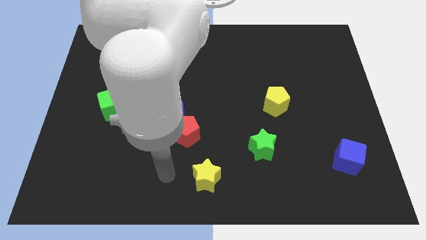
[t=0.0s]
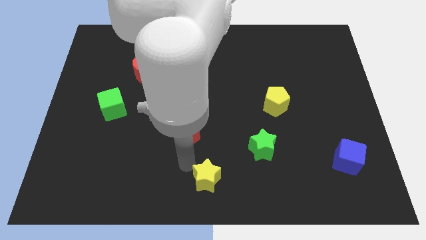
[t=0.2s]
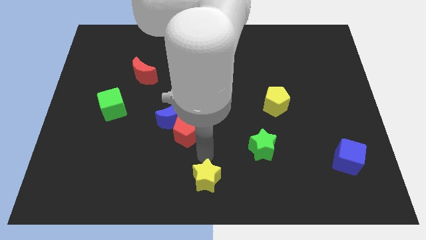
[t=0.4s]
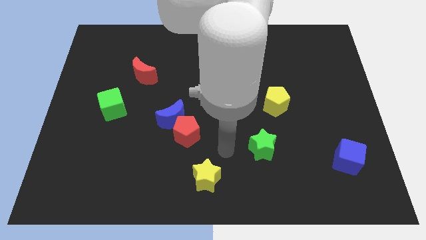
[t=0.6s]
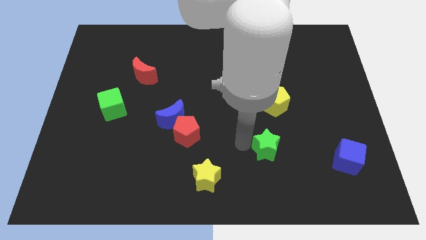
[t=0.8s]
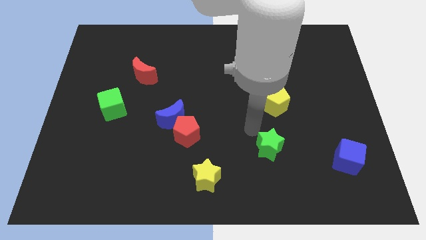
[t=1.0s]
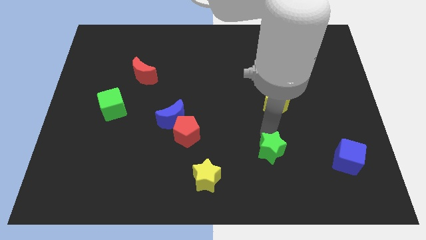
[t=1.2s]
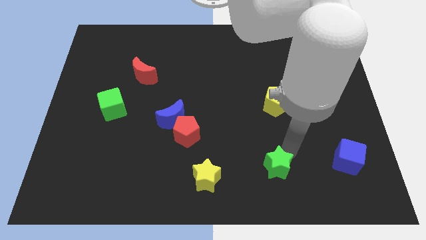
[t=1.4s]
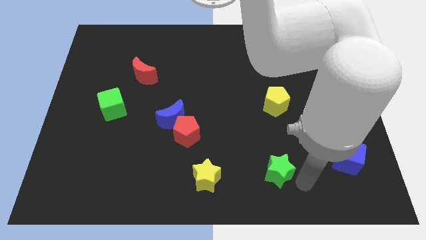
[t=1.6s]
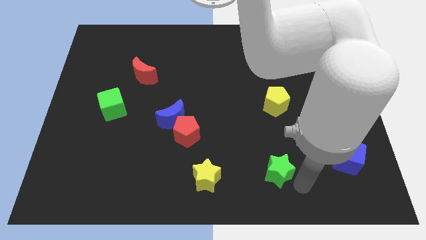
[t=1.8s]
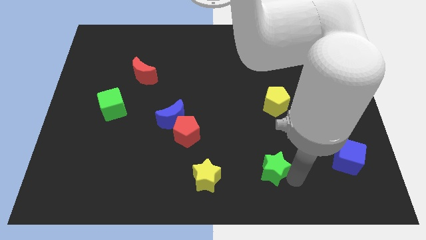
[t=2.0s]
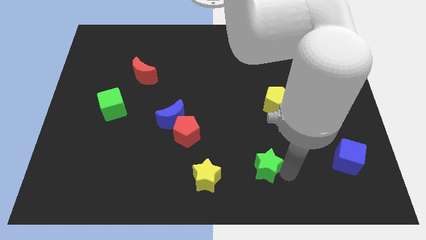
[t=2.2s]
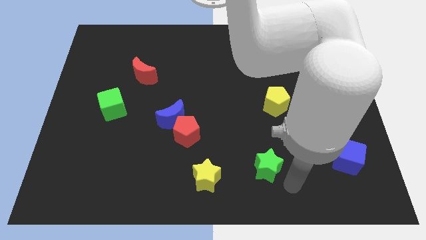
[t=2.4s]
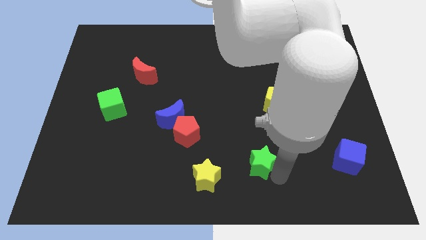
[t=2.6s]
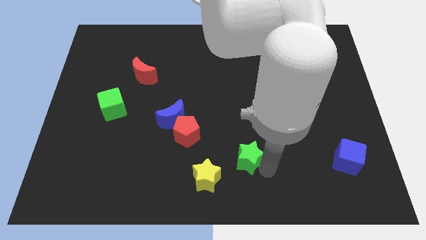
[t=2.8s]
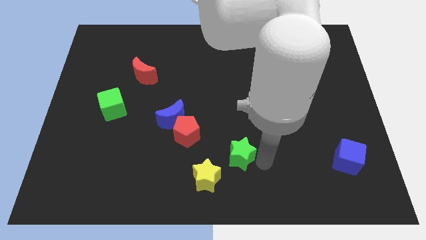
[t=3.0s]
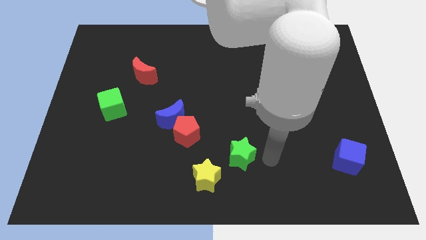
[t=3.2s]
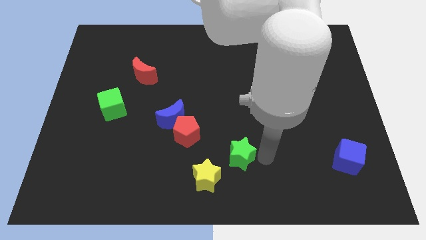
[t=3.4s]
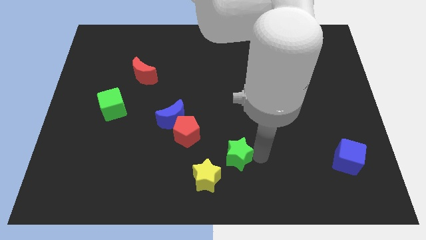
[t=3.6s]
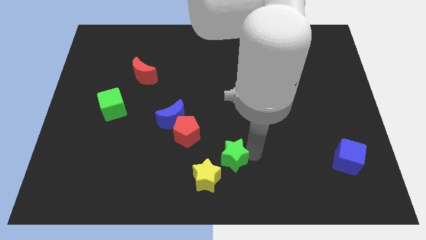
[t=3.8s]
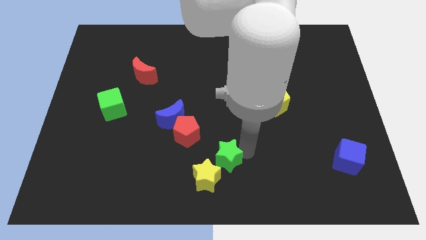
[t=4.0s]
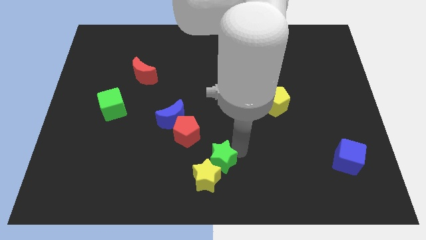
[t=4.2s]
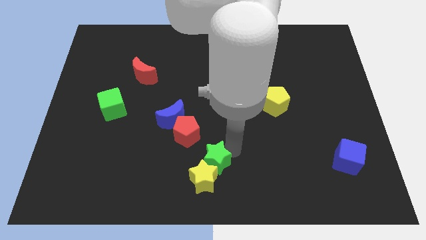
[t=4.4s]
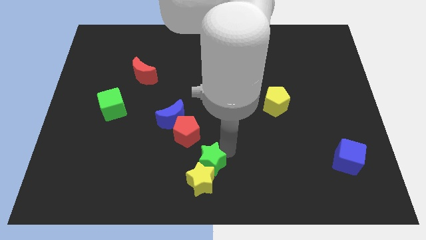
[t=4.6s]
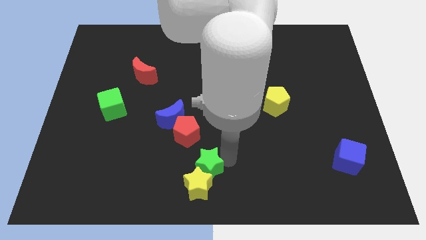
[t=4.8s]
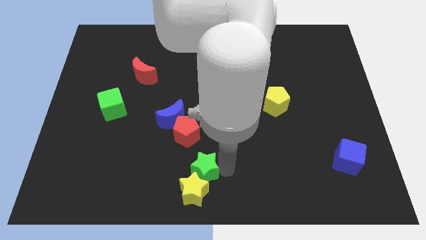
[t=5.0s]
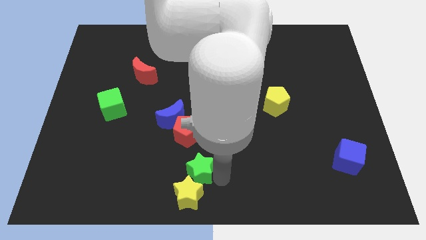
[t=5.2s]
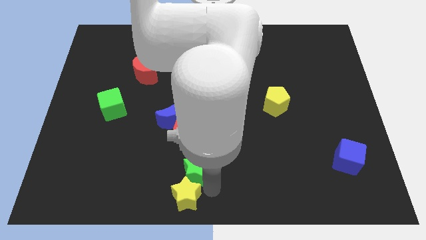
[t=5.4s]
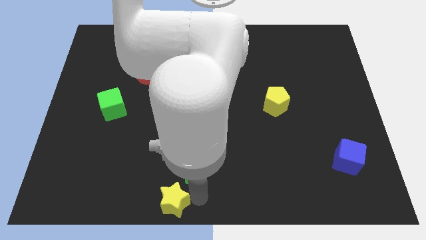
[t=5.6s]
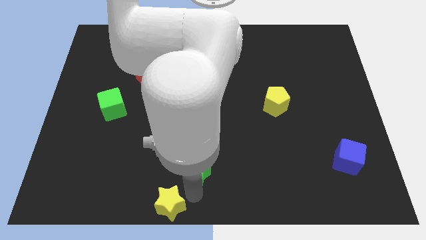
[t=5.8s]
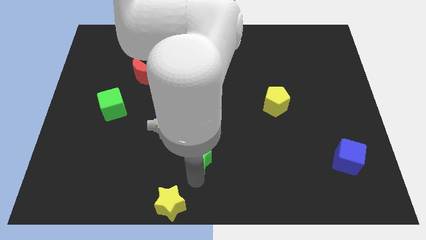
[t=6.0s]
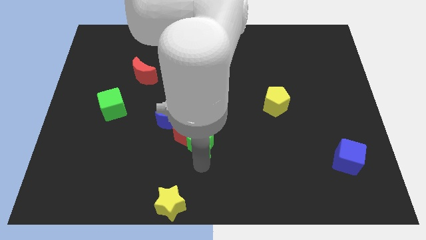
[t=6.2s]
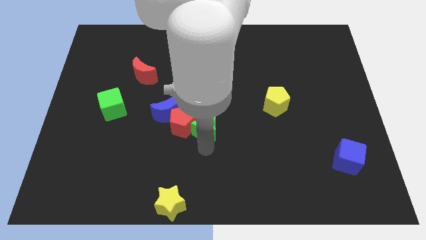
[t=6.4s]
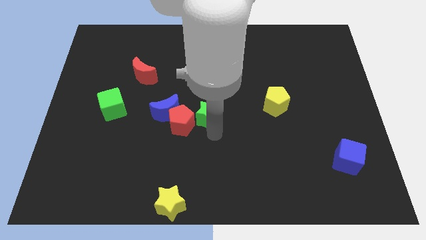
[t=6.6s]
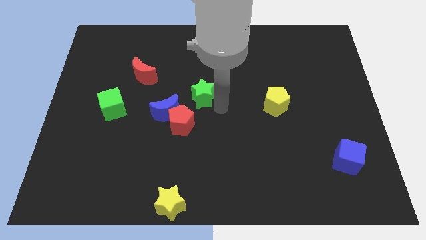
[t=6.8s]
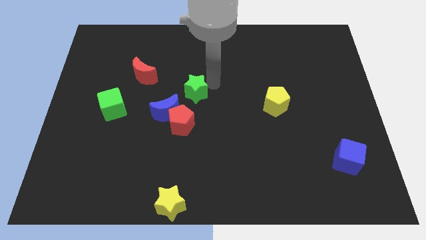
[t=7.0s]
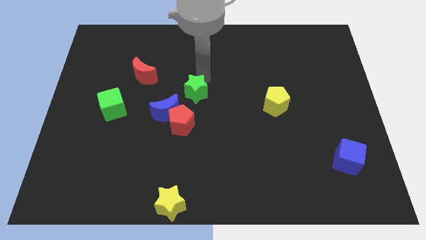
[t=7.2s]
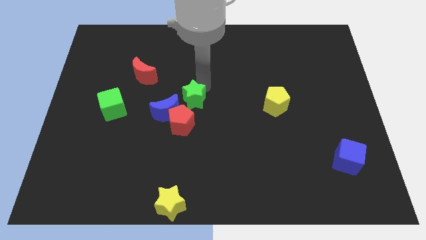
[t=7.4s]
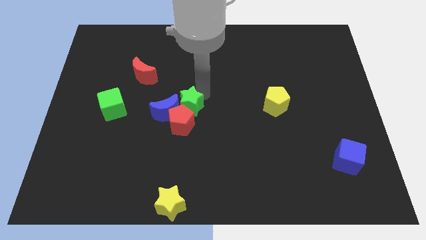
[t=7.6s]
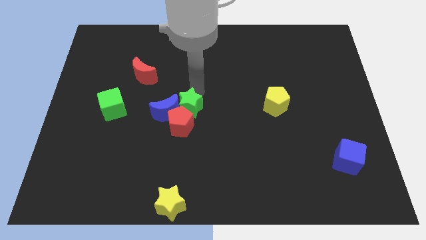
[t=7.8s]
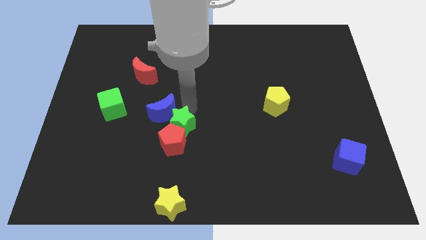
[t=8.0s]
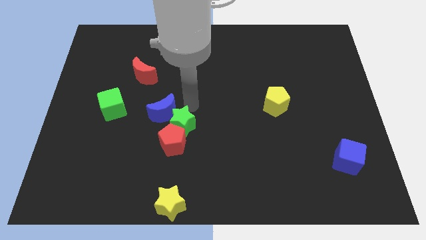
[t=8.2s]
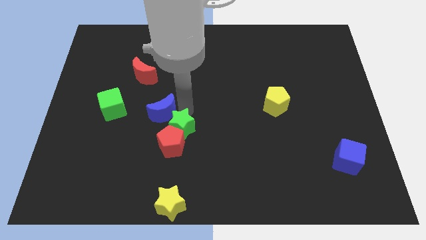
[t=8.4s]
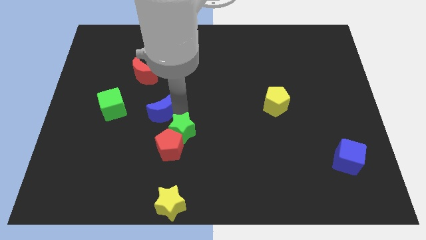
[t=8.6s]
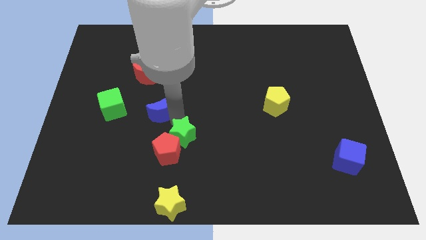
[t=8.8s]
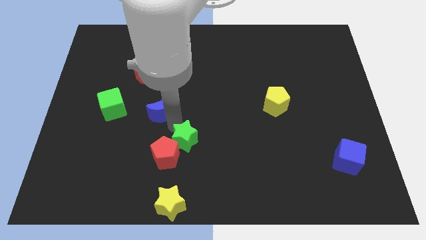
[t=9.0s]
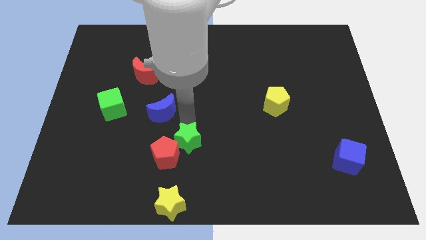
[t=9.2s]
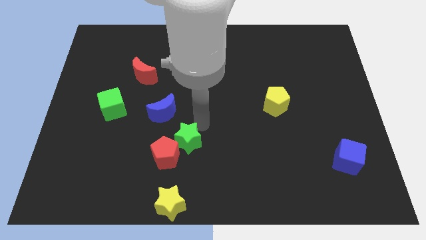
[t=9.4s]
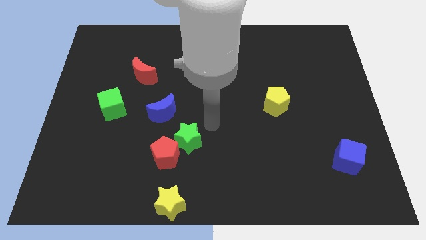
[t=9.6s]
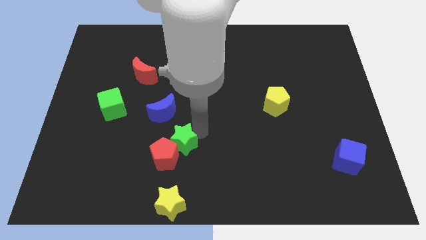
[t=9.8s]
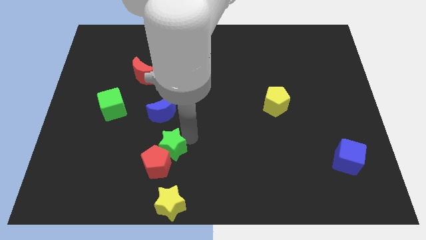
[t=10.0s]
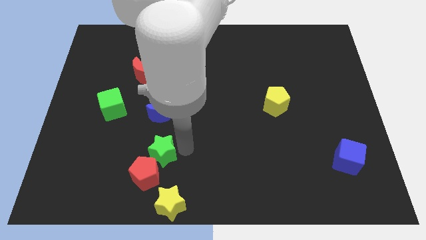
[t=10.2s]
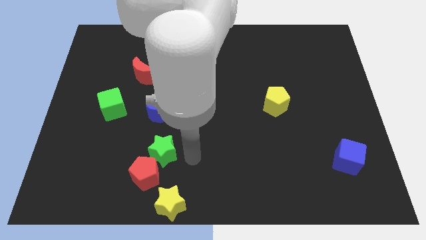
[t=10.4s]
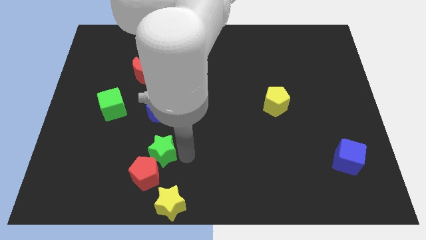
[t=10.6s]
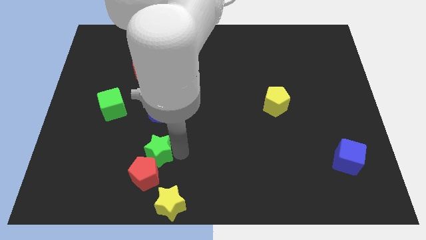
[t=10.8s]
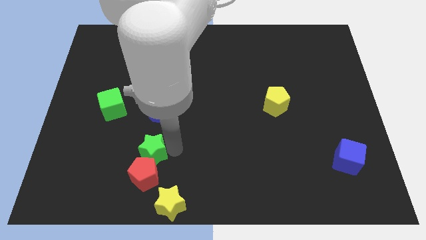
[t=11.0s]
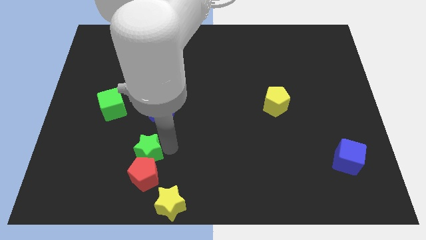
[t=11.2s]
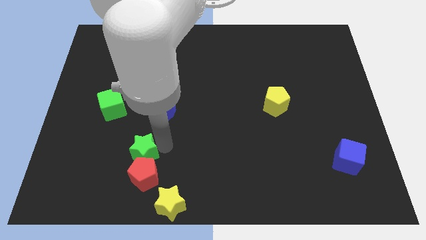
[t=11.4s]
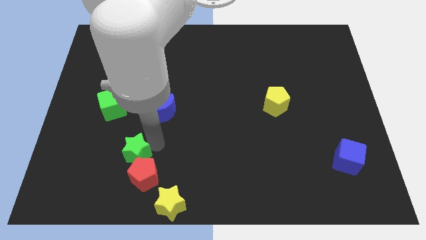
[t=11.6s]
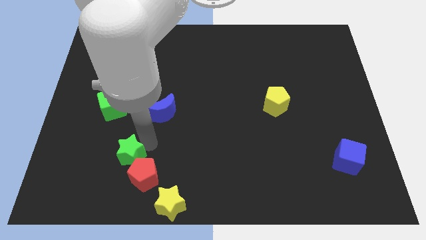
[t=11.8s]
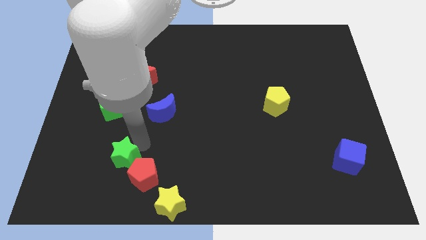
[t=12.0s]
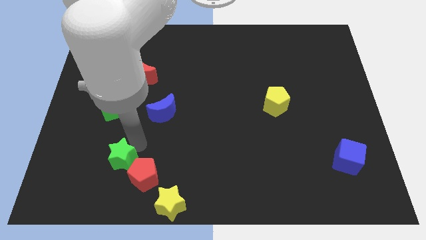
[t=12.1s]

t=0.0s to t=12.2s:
push the green star to the bottom of the green cube

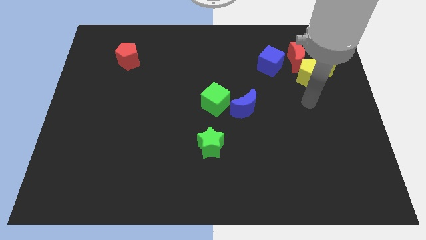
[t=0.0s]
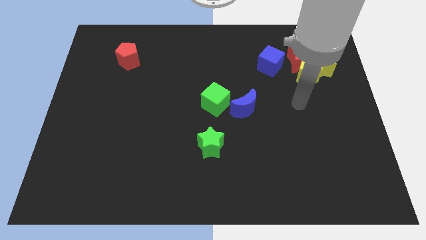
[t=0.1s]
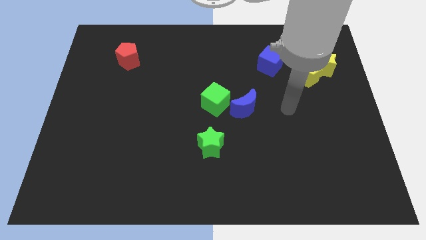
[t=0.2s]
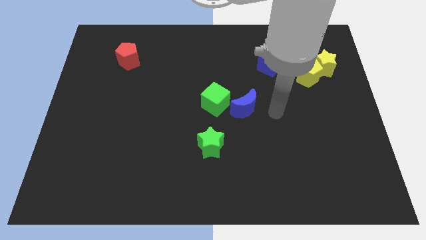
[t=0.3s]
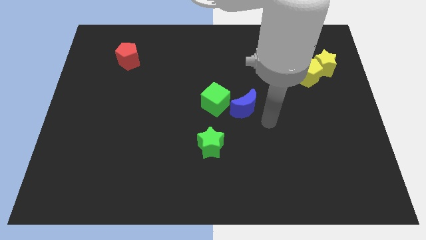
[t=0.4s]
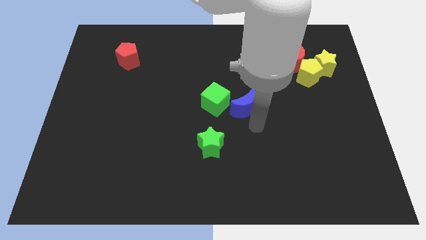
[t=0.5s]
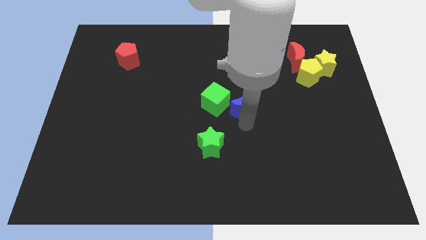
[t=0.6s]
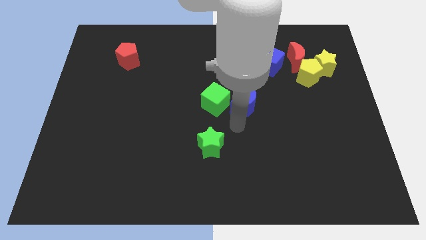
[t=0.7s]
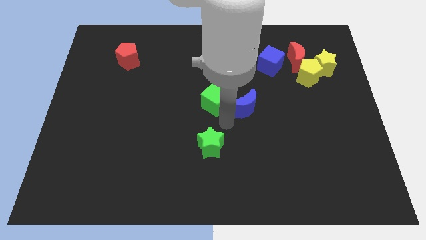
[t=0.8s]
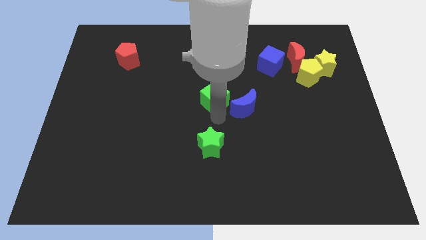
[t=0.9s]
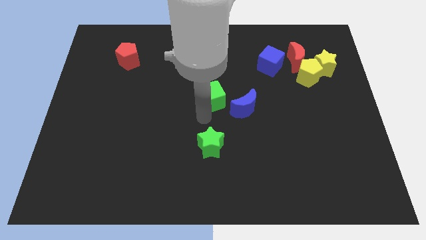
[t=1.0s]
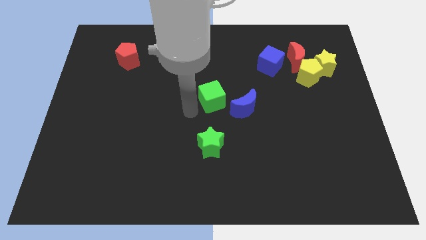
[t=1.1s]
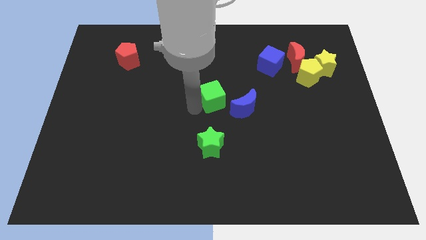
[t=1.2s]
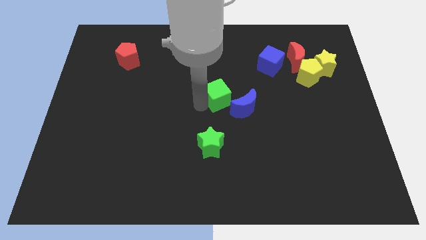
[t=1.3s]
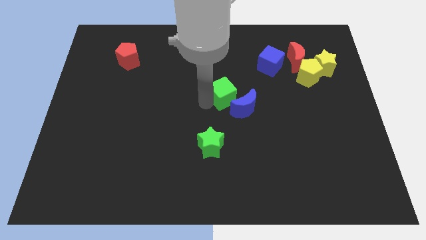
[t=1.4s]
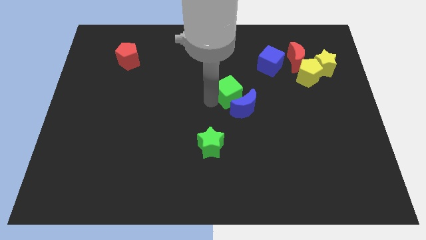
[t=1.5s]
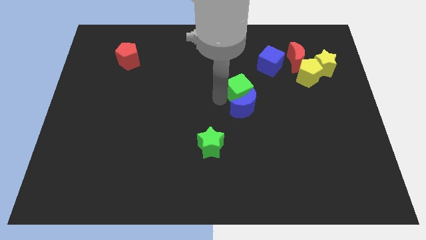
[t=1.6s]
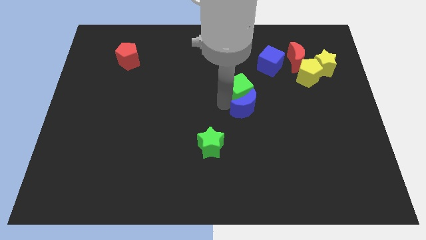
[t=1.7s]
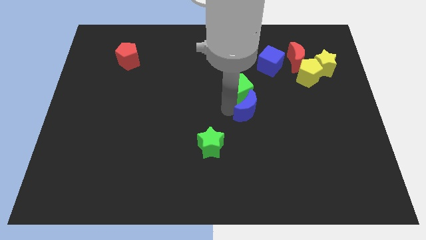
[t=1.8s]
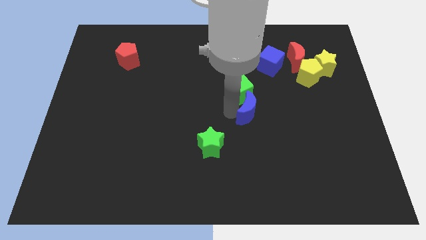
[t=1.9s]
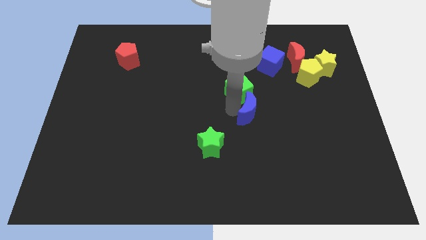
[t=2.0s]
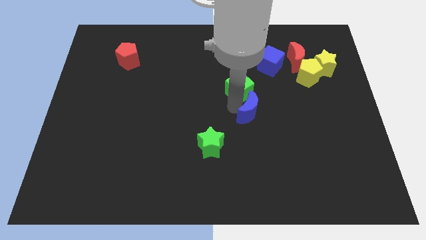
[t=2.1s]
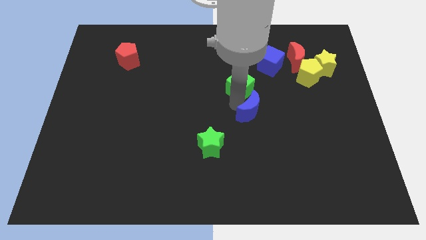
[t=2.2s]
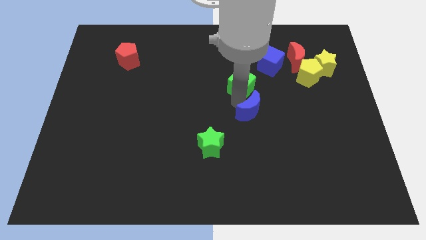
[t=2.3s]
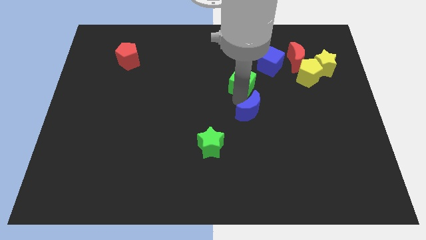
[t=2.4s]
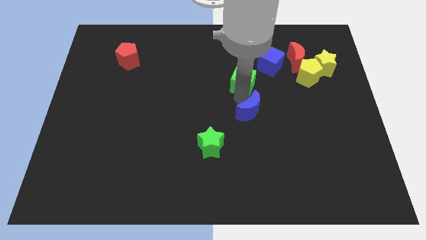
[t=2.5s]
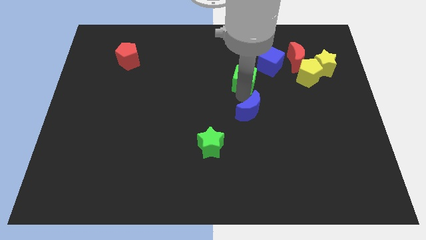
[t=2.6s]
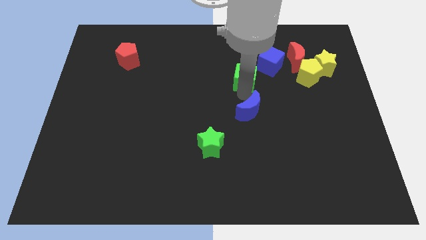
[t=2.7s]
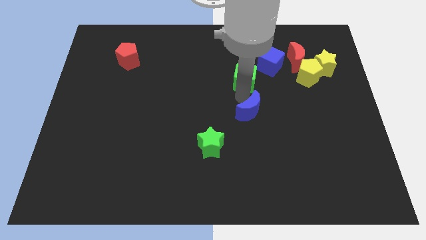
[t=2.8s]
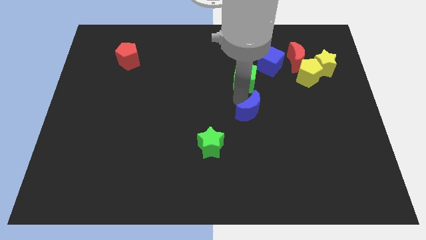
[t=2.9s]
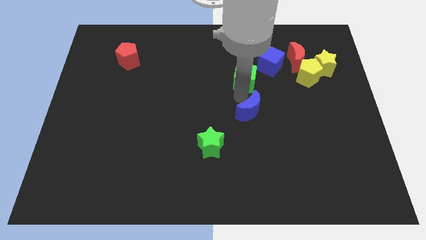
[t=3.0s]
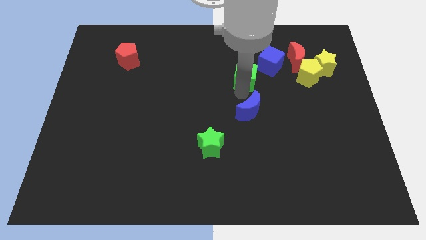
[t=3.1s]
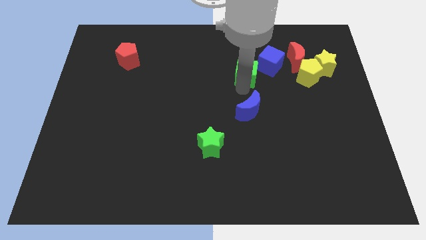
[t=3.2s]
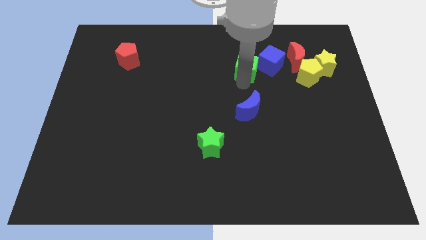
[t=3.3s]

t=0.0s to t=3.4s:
slide the green cube to the left of the red moon
